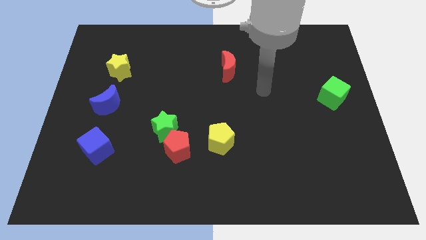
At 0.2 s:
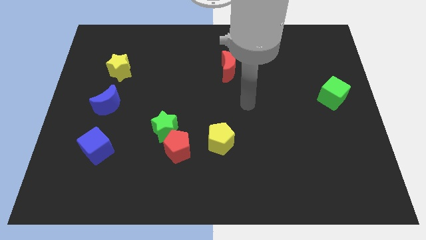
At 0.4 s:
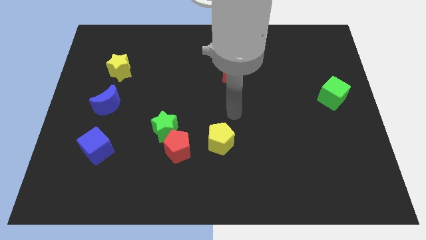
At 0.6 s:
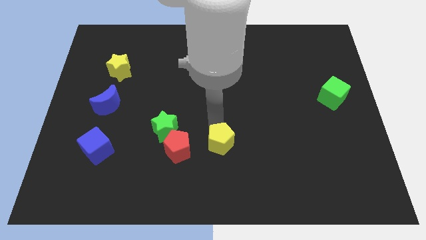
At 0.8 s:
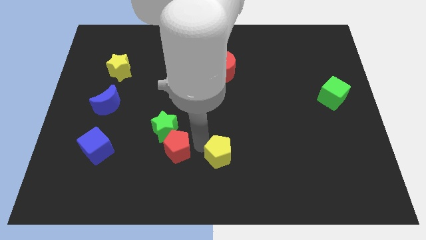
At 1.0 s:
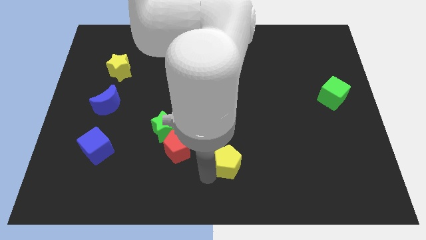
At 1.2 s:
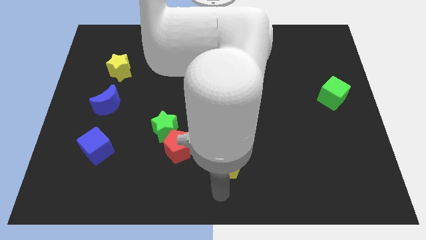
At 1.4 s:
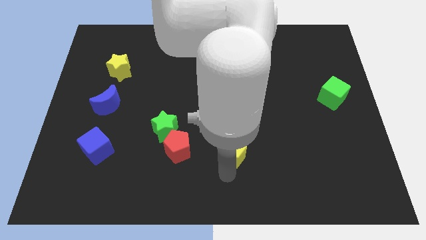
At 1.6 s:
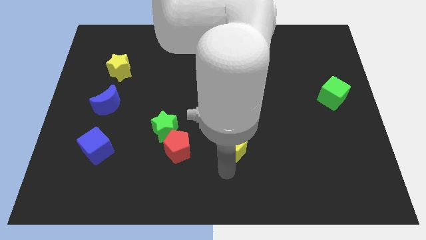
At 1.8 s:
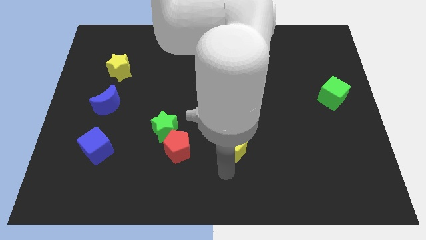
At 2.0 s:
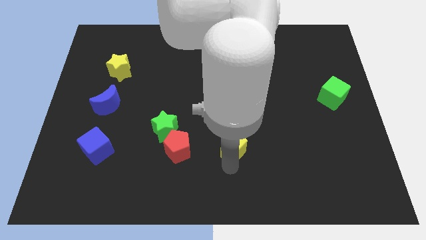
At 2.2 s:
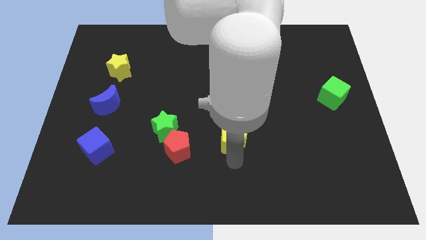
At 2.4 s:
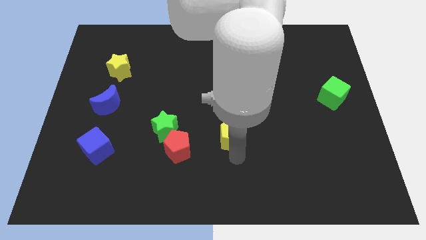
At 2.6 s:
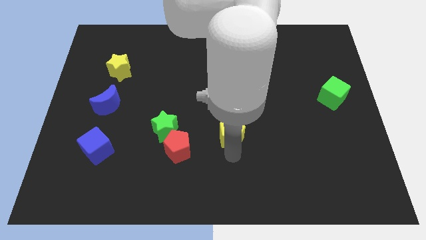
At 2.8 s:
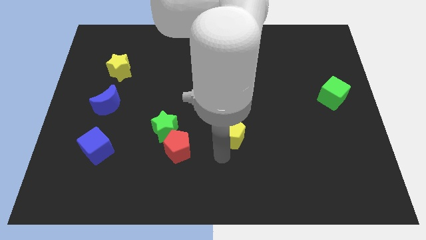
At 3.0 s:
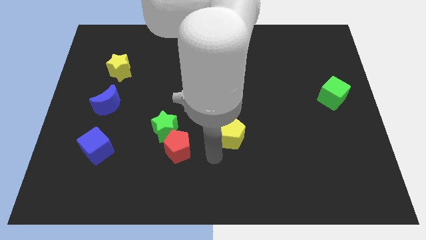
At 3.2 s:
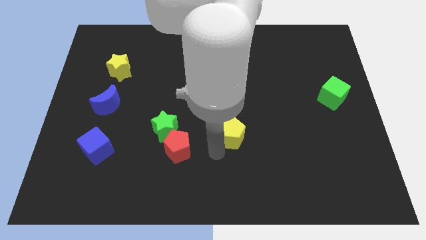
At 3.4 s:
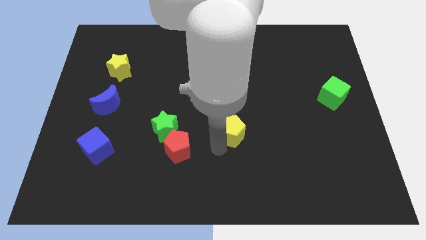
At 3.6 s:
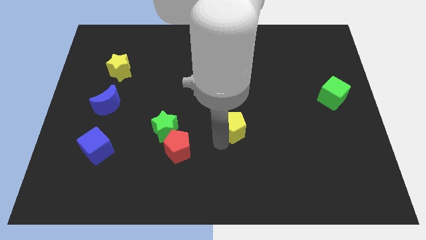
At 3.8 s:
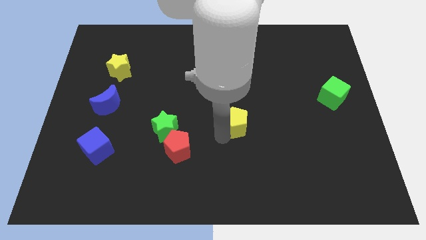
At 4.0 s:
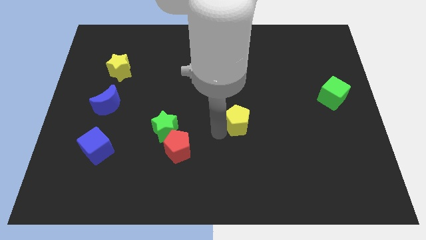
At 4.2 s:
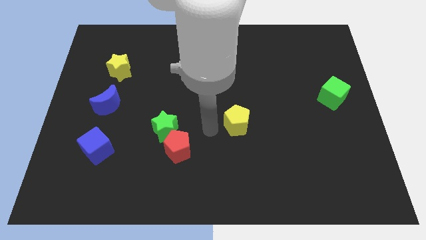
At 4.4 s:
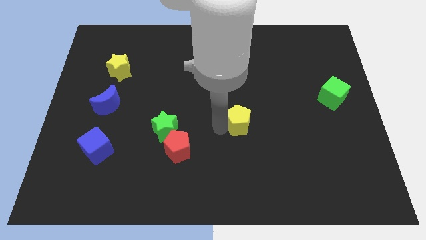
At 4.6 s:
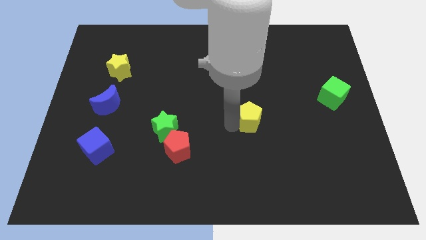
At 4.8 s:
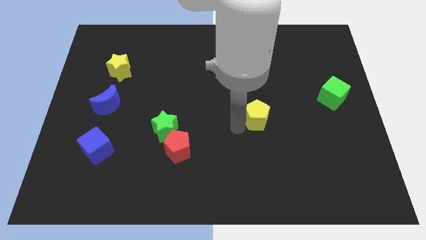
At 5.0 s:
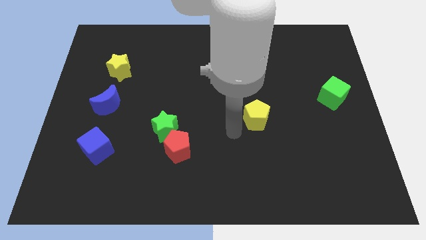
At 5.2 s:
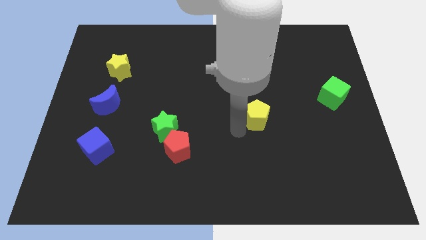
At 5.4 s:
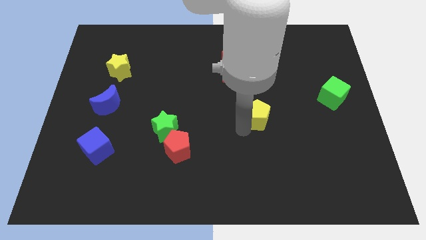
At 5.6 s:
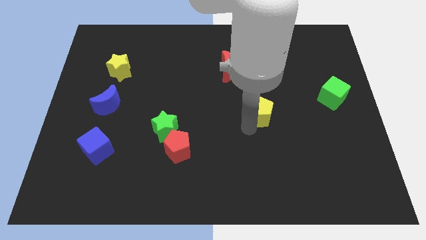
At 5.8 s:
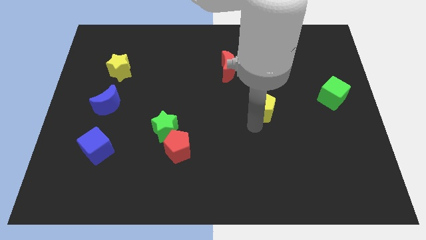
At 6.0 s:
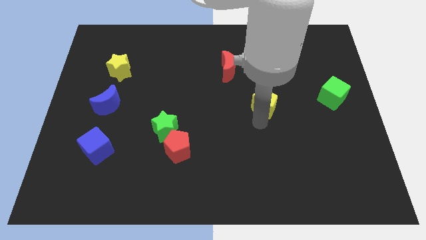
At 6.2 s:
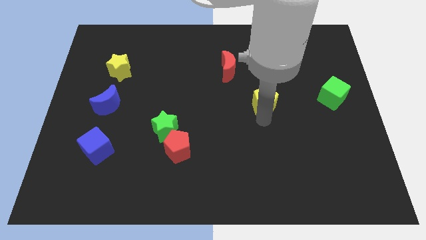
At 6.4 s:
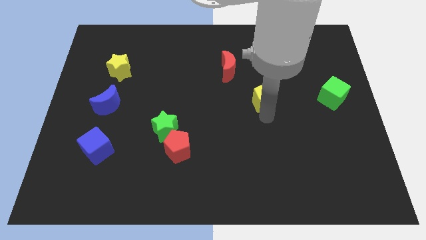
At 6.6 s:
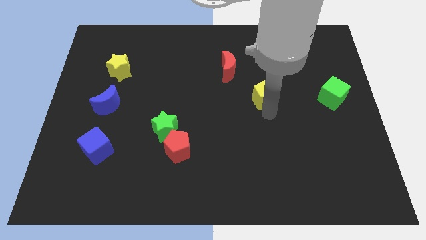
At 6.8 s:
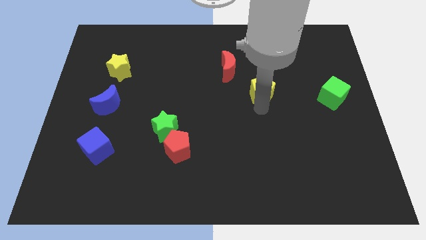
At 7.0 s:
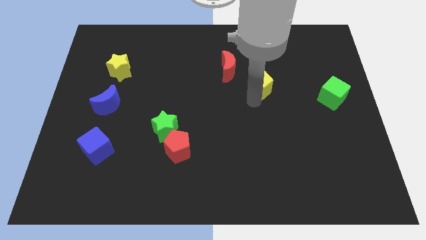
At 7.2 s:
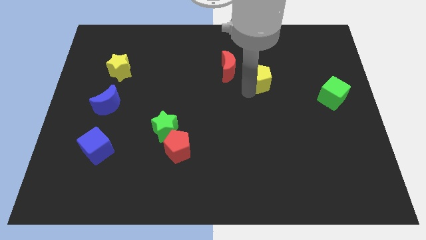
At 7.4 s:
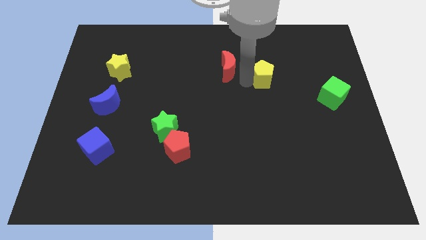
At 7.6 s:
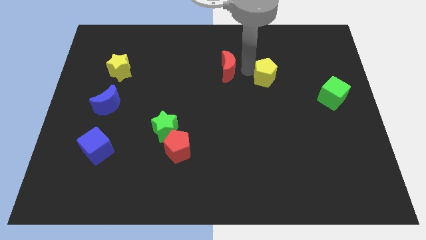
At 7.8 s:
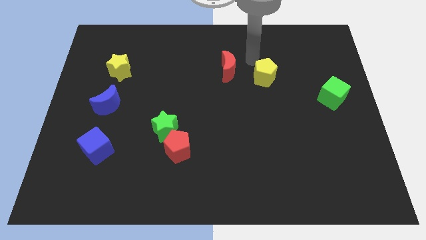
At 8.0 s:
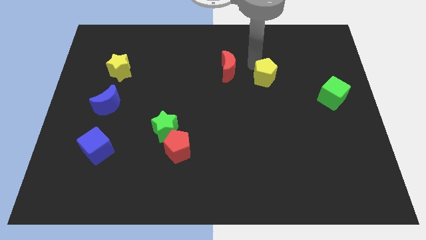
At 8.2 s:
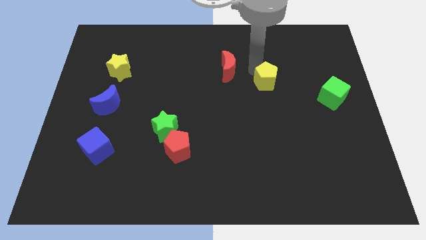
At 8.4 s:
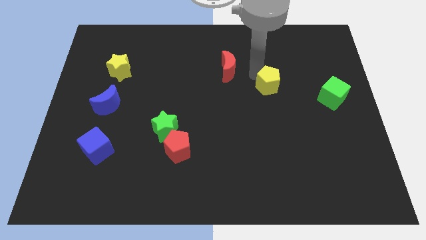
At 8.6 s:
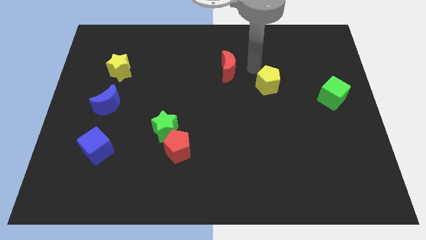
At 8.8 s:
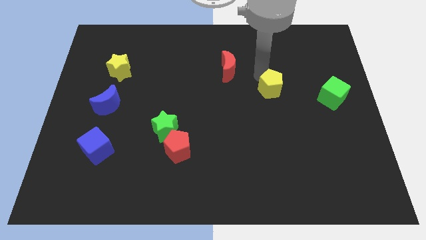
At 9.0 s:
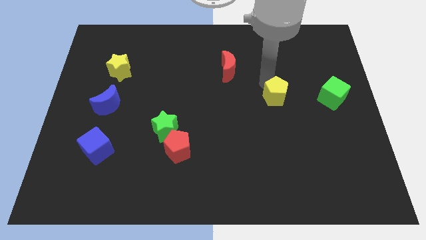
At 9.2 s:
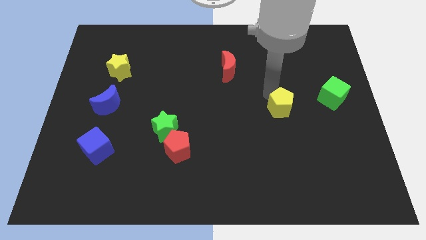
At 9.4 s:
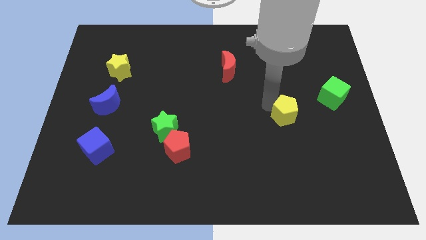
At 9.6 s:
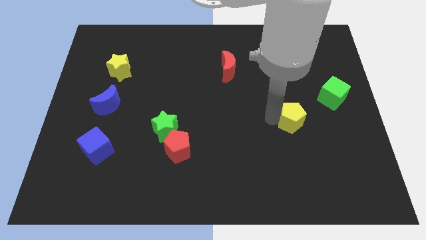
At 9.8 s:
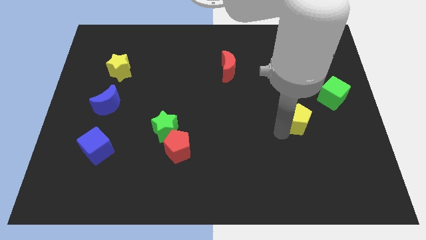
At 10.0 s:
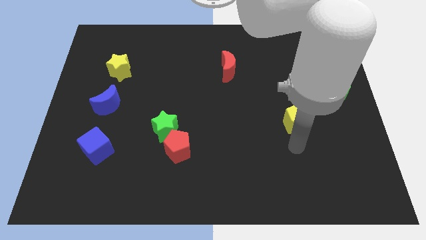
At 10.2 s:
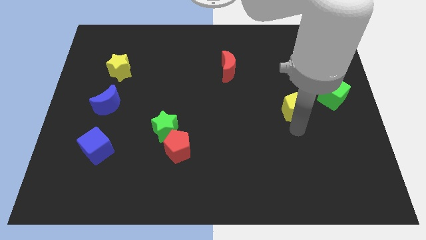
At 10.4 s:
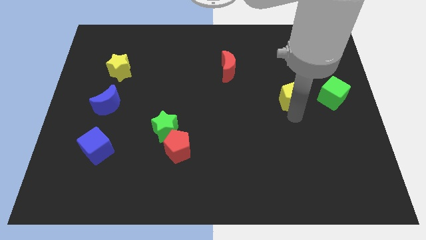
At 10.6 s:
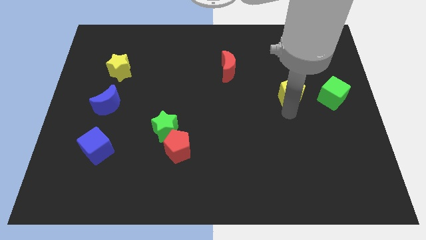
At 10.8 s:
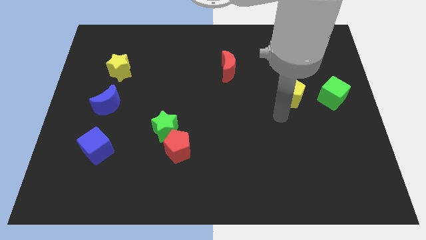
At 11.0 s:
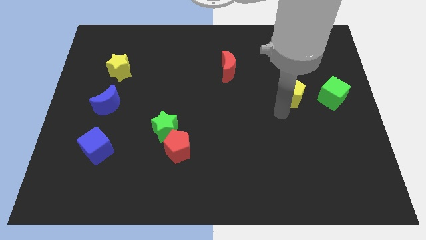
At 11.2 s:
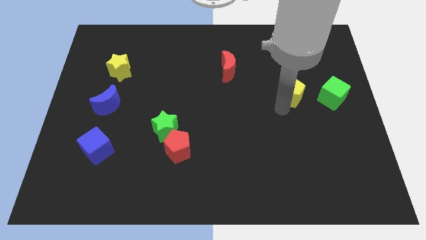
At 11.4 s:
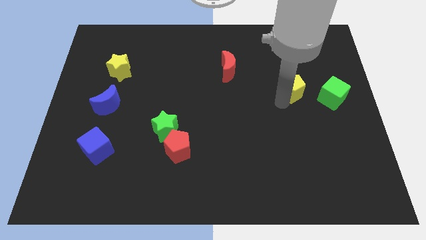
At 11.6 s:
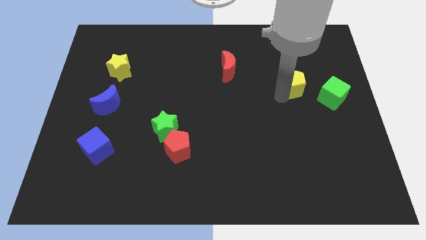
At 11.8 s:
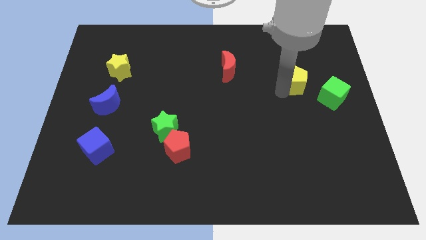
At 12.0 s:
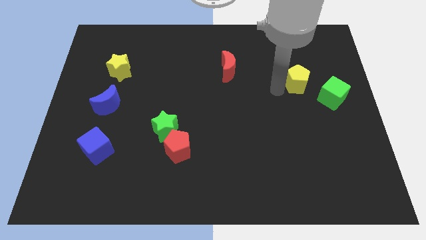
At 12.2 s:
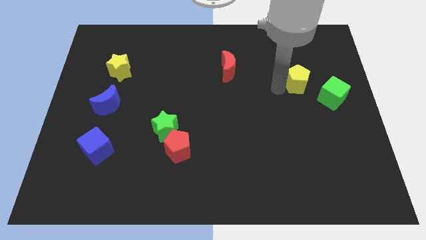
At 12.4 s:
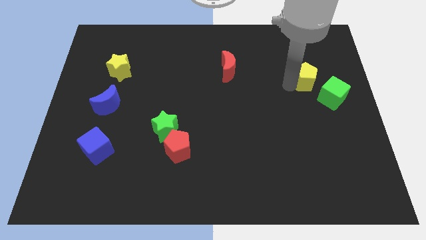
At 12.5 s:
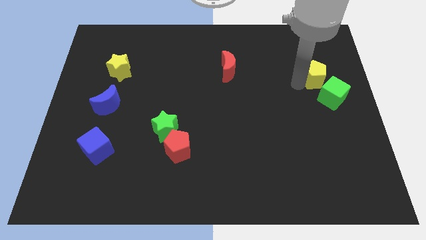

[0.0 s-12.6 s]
slide the yellow pentagon to the top side of the green cube

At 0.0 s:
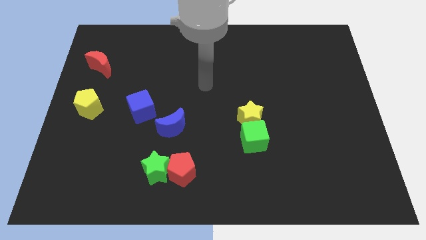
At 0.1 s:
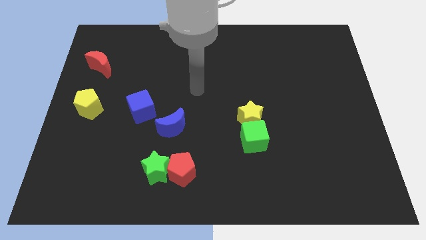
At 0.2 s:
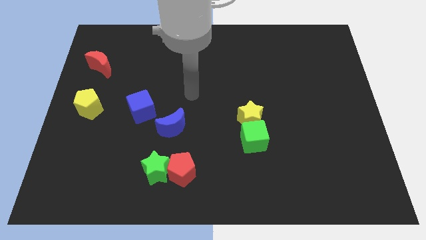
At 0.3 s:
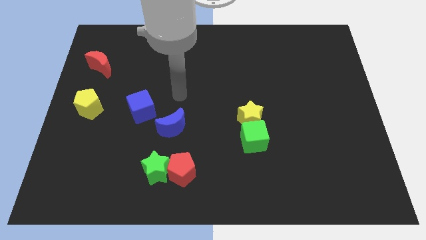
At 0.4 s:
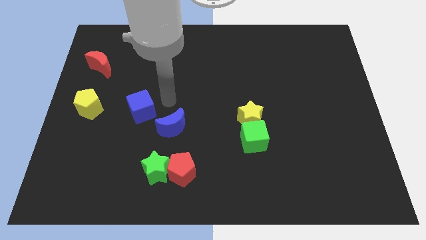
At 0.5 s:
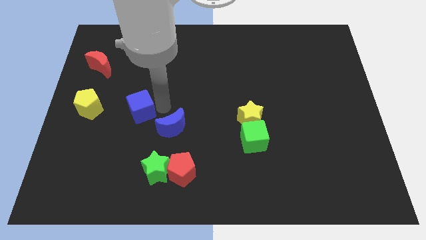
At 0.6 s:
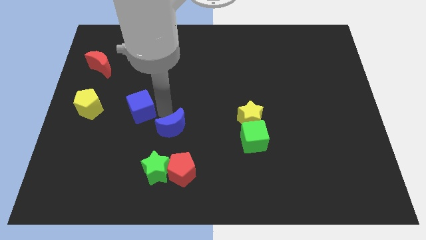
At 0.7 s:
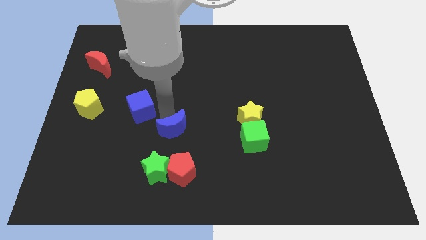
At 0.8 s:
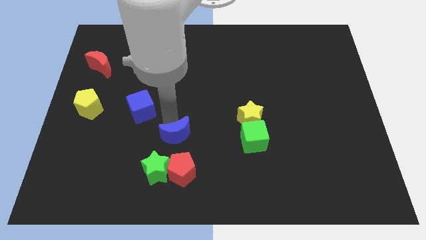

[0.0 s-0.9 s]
slide the blue moon to the top right of the green star
